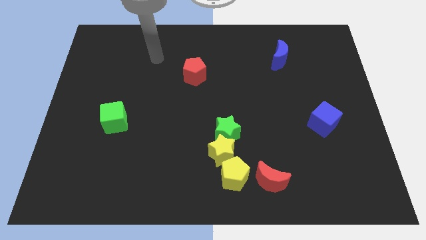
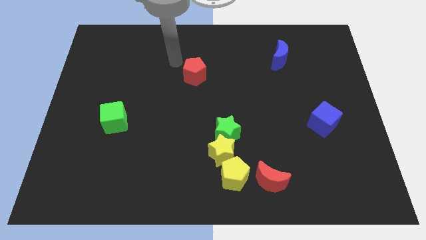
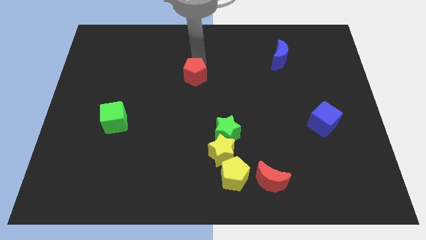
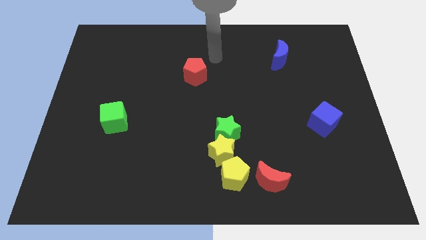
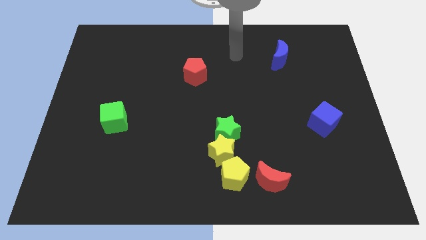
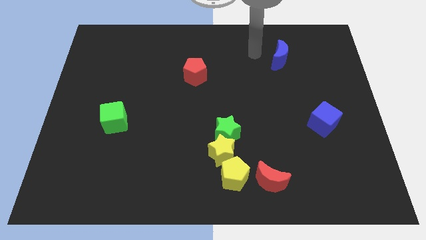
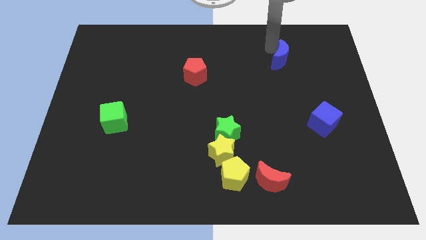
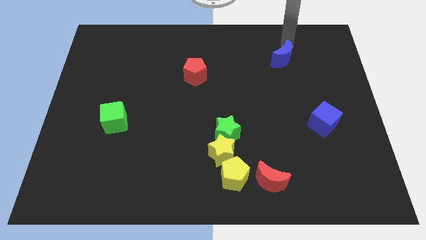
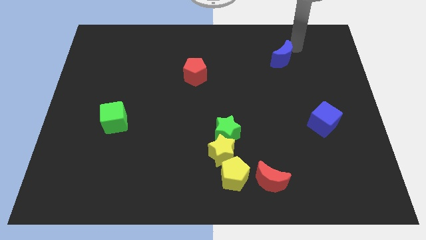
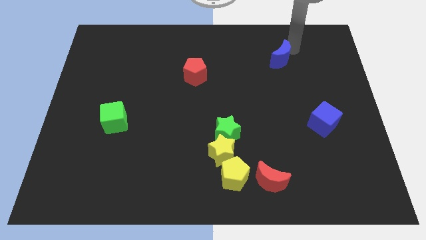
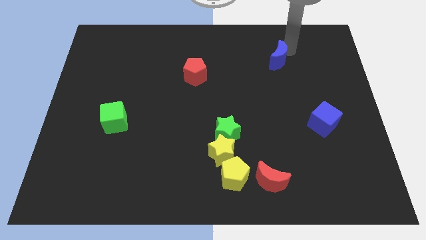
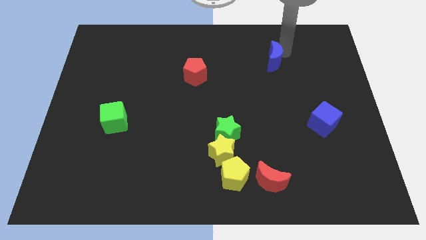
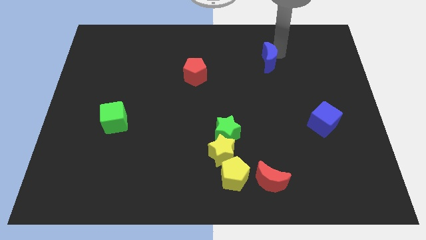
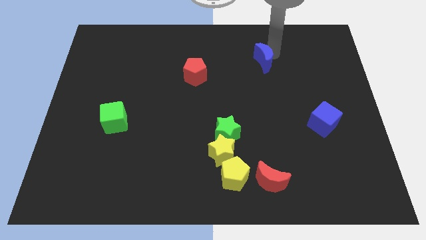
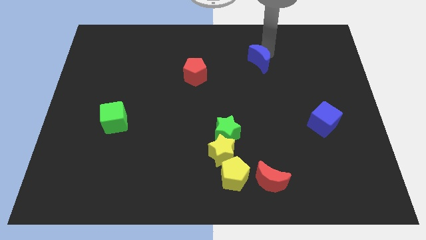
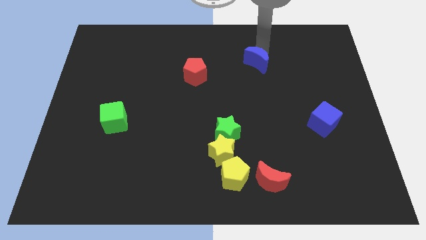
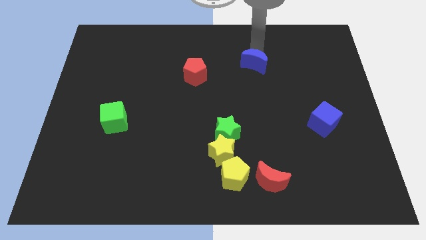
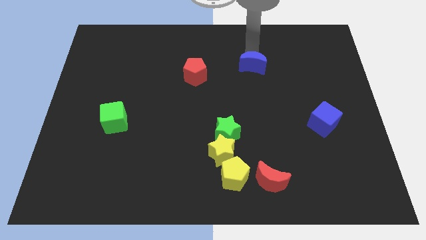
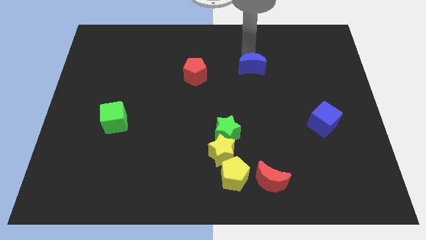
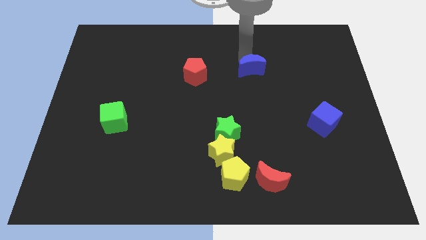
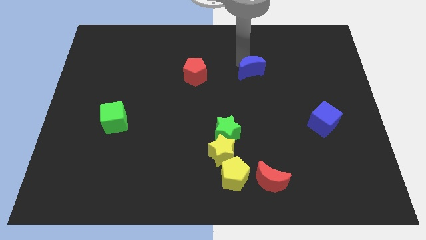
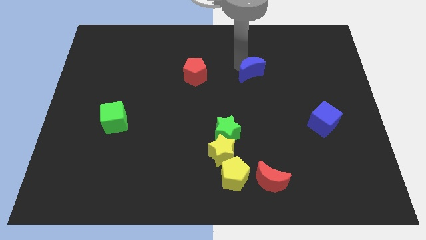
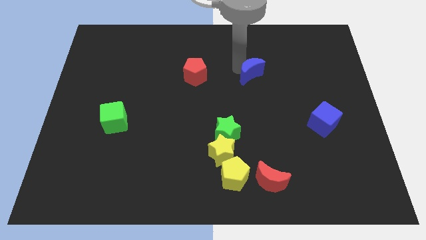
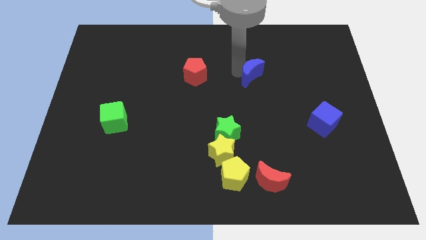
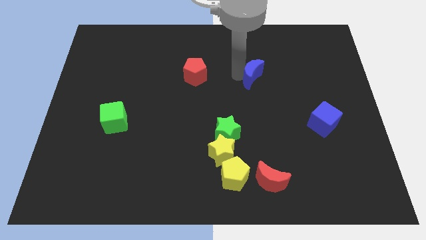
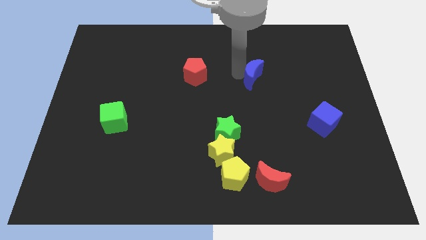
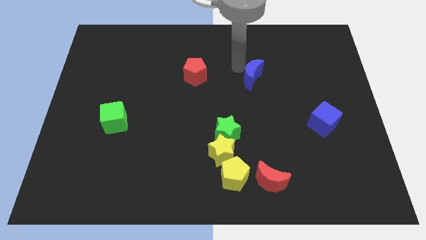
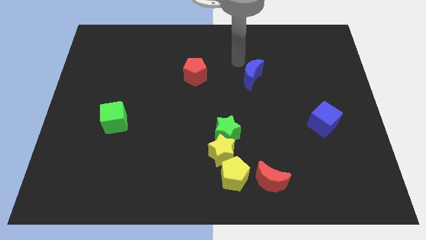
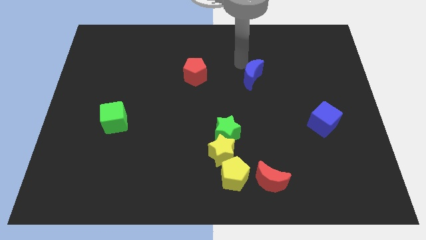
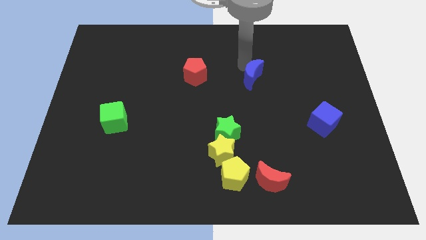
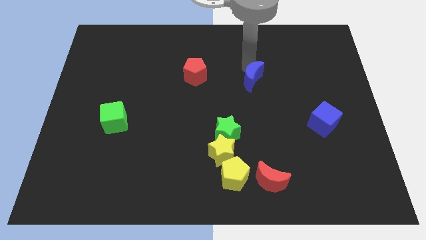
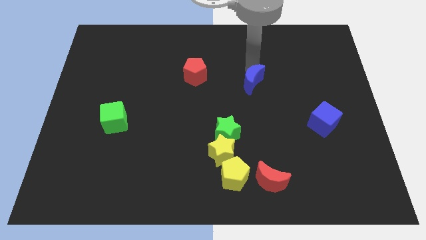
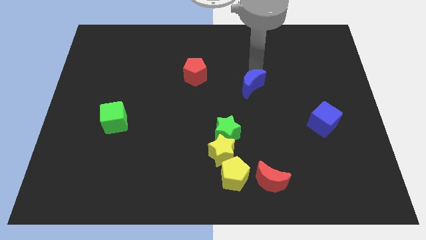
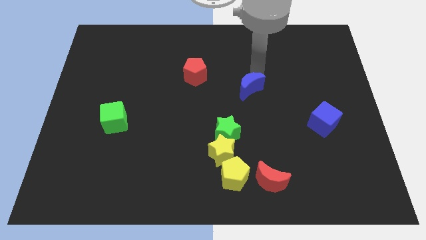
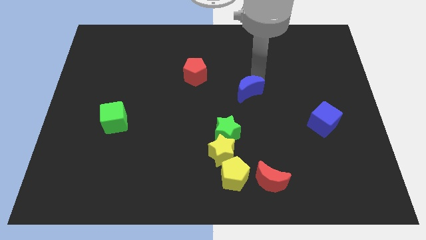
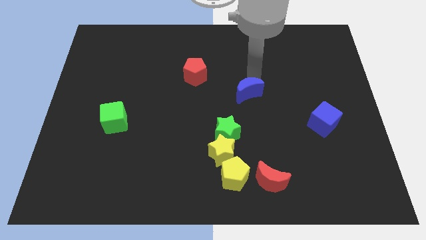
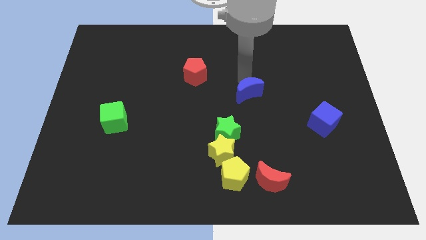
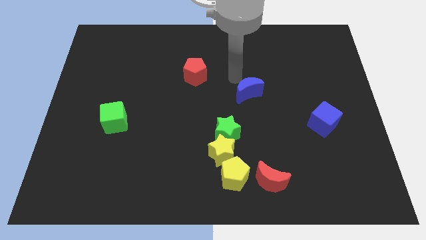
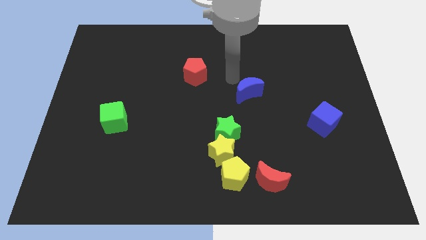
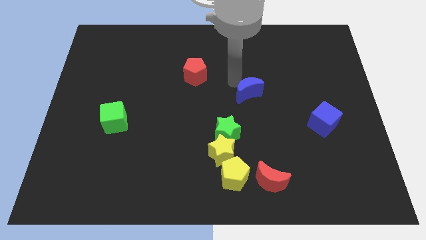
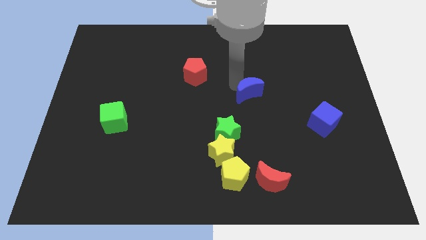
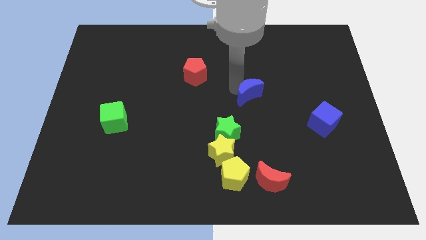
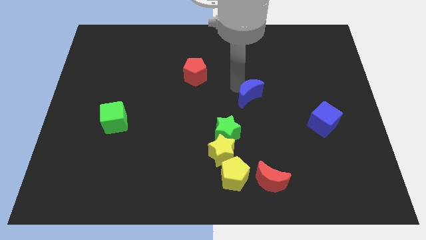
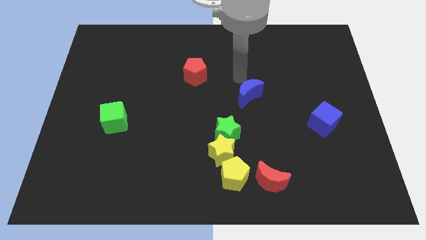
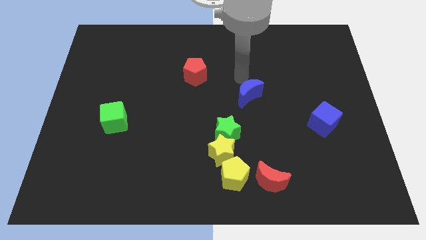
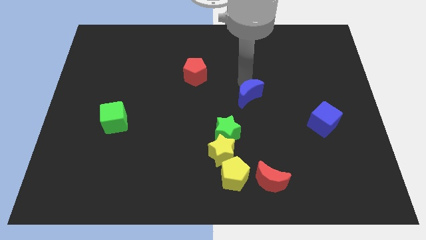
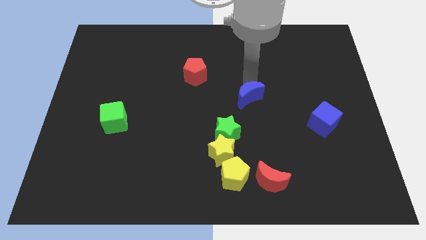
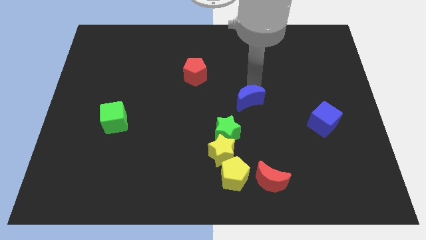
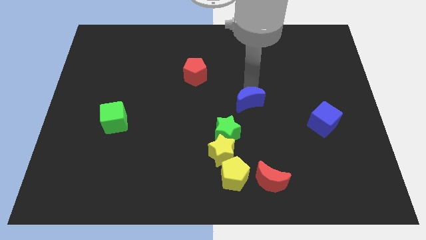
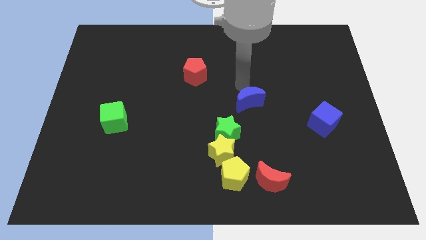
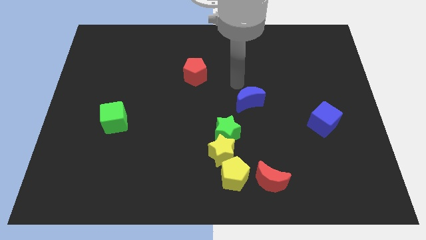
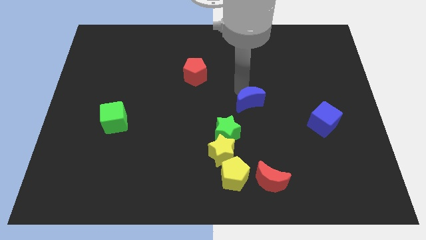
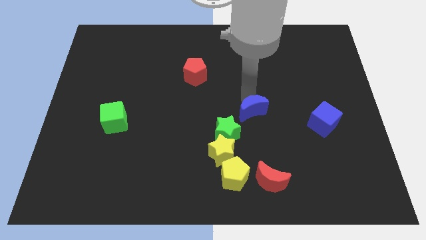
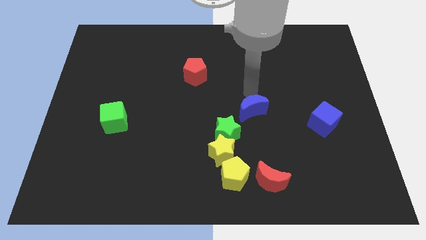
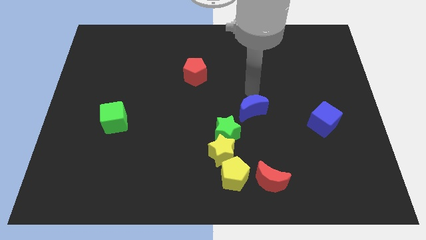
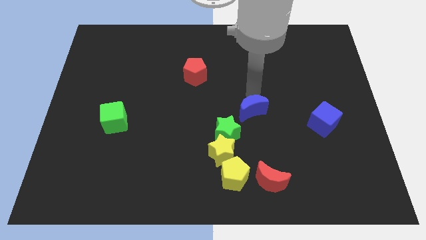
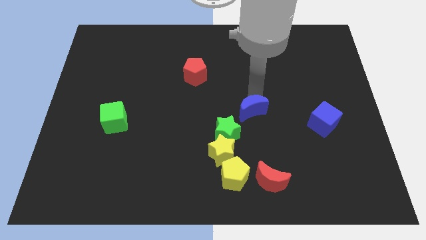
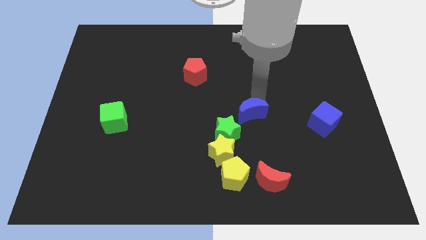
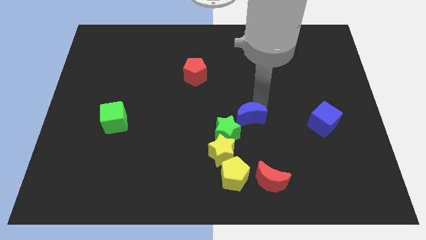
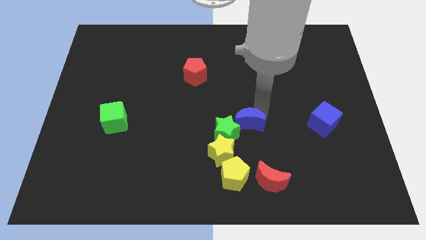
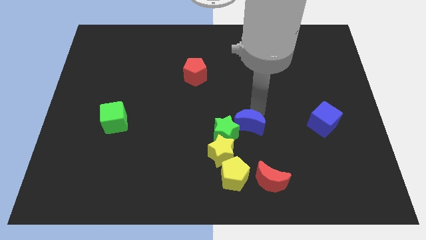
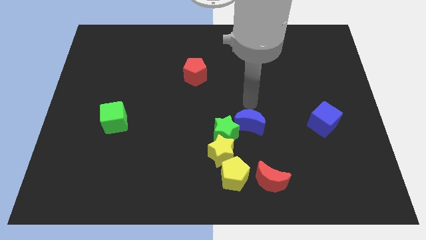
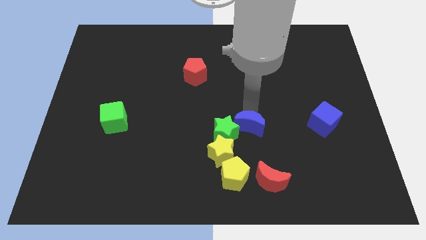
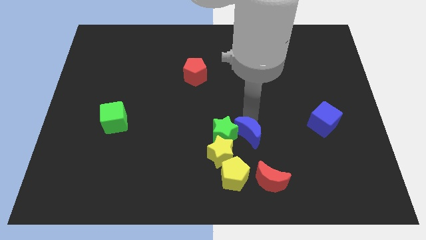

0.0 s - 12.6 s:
put the blue moon to the bottom right of the green star
